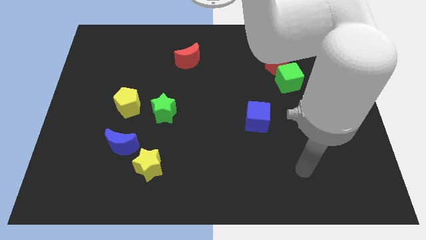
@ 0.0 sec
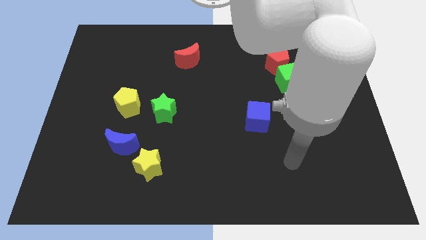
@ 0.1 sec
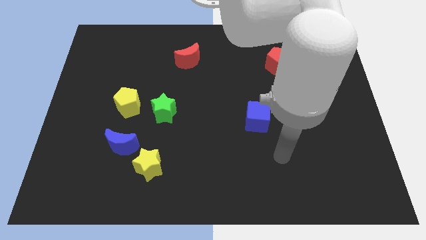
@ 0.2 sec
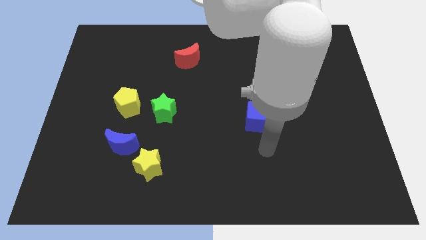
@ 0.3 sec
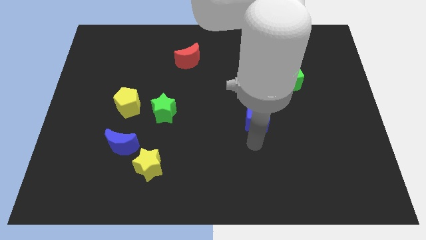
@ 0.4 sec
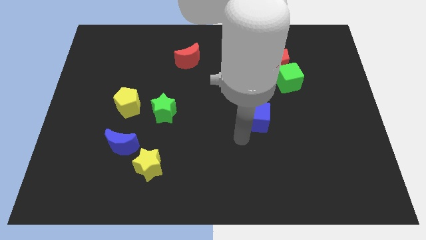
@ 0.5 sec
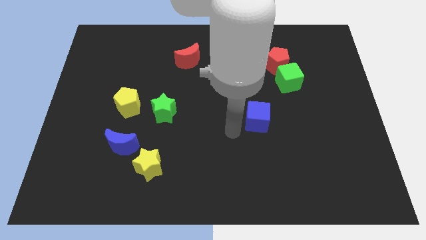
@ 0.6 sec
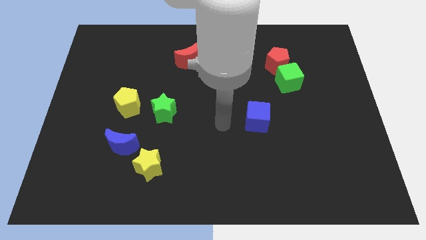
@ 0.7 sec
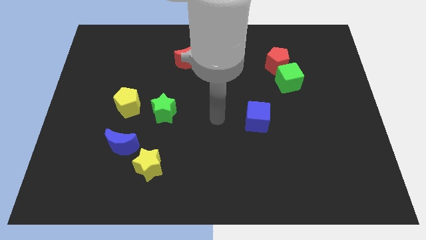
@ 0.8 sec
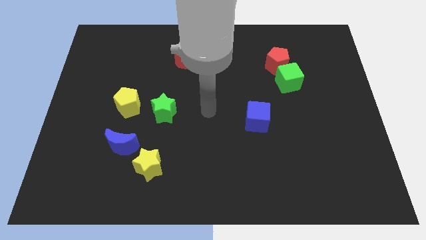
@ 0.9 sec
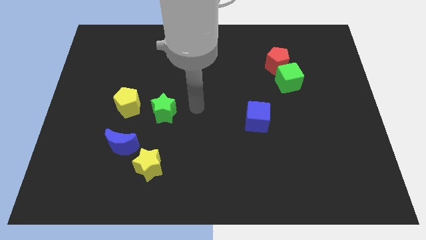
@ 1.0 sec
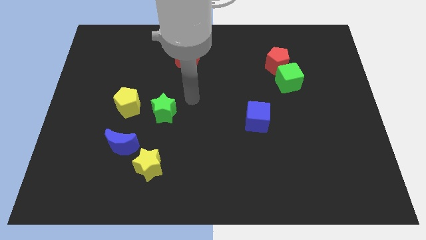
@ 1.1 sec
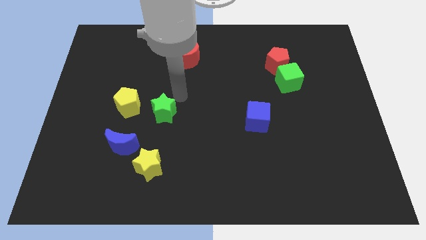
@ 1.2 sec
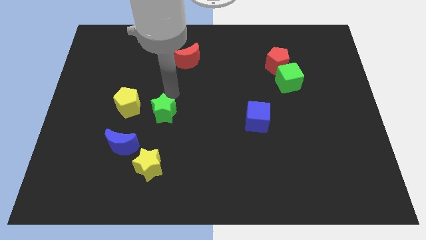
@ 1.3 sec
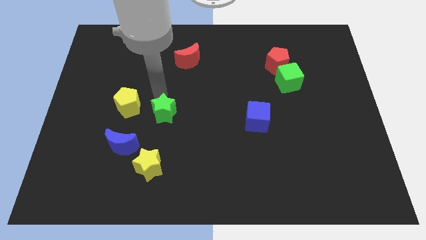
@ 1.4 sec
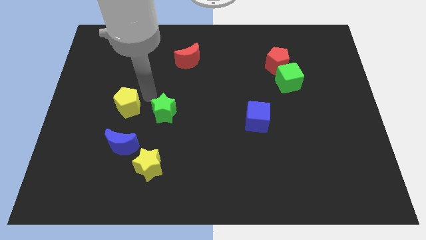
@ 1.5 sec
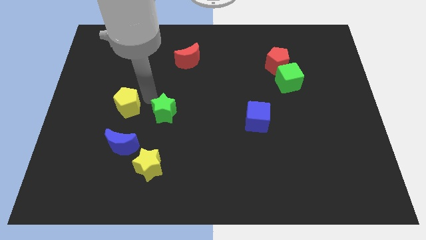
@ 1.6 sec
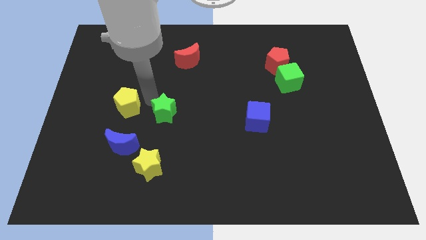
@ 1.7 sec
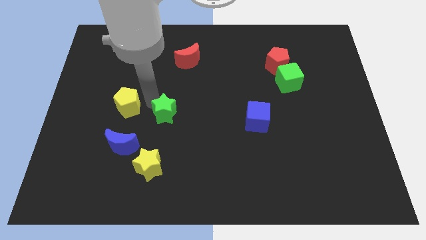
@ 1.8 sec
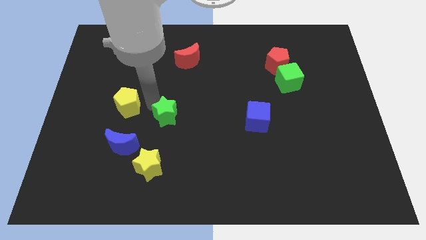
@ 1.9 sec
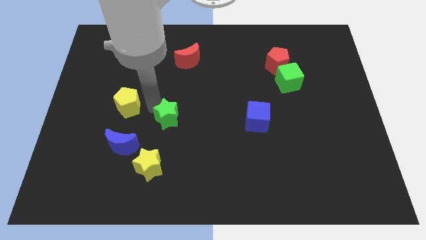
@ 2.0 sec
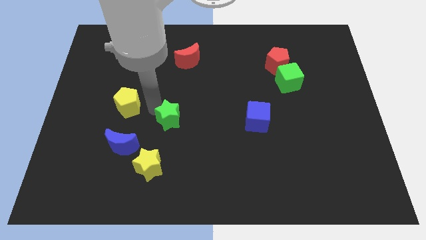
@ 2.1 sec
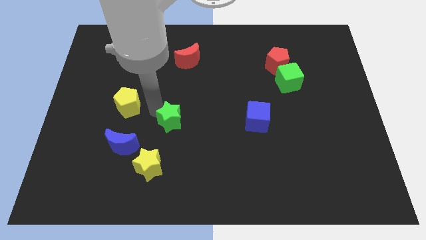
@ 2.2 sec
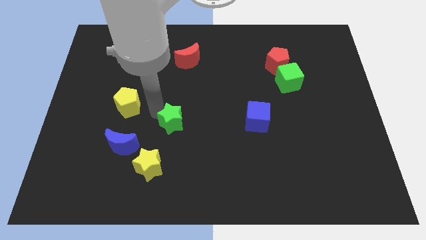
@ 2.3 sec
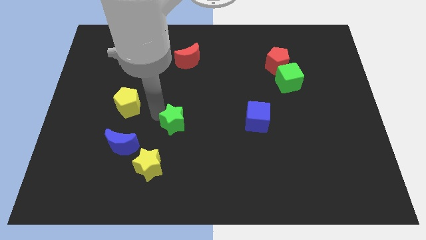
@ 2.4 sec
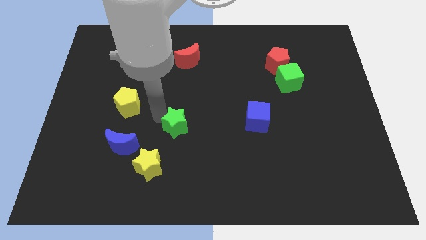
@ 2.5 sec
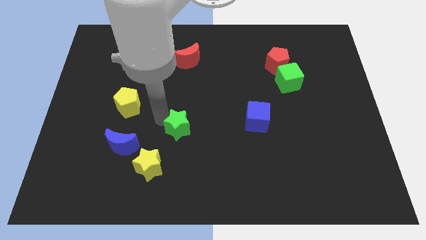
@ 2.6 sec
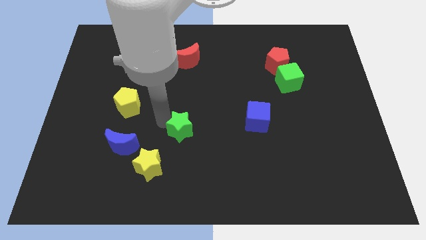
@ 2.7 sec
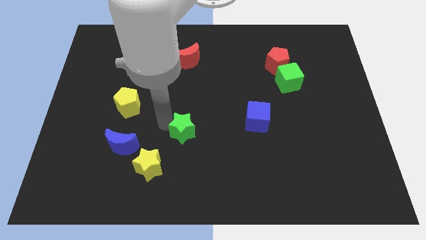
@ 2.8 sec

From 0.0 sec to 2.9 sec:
move the green star downwards and then right a little

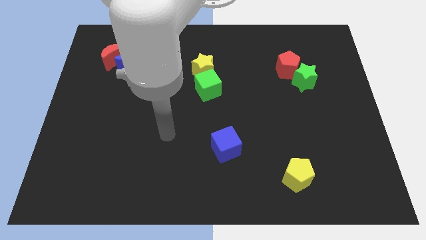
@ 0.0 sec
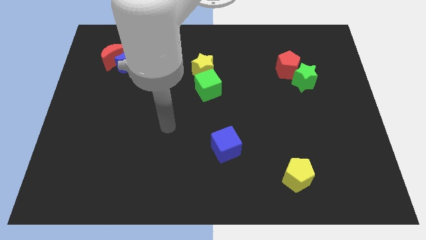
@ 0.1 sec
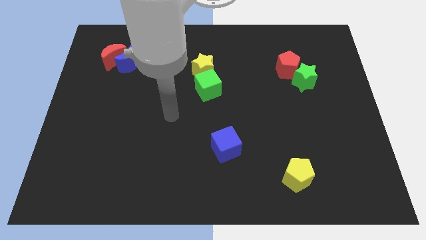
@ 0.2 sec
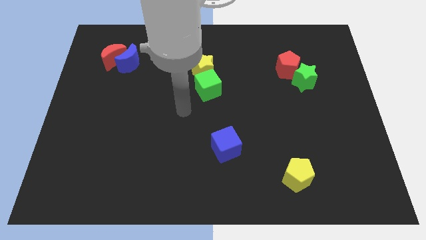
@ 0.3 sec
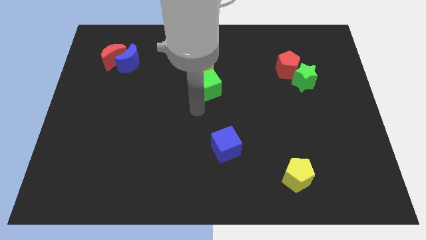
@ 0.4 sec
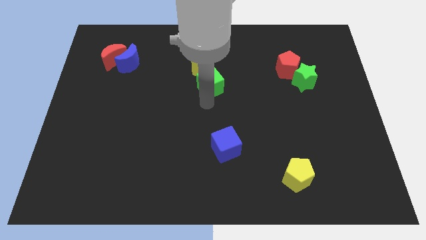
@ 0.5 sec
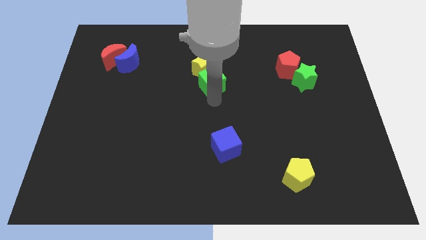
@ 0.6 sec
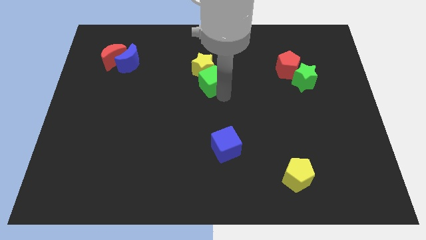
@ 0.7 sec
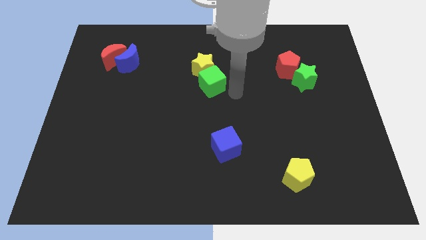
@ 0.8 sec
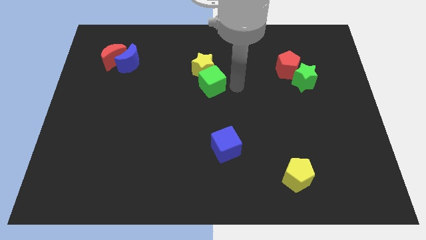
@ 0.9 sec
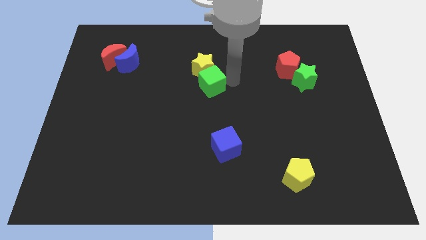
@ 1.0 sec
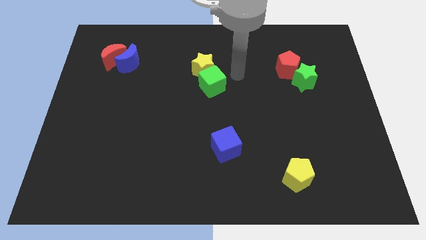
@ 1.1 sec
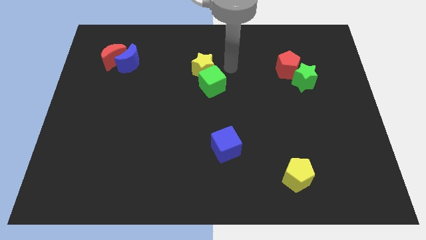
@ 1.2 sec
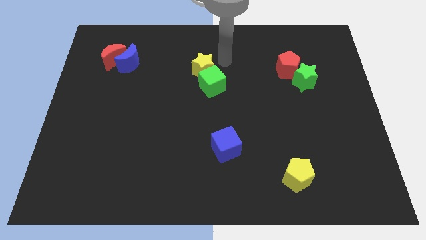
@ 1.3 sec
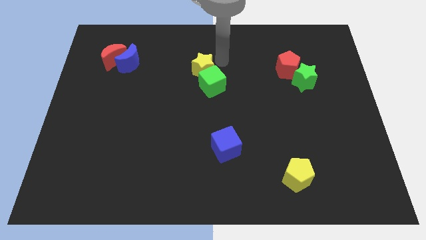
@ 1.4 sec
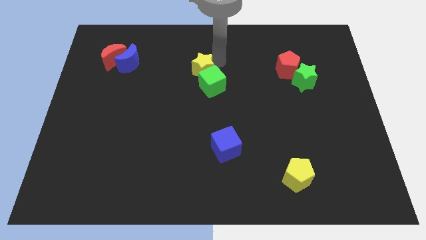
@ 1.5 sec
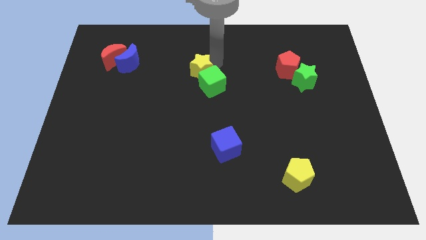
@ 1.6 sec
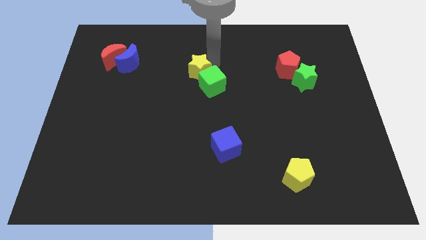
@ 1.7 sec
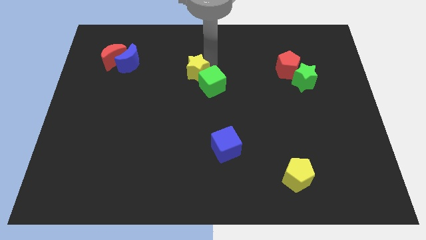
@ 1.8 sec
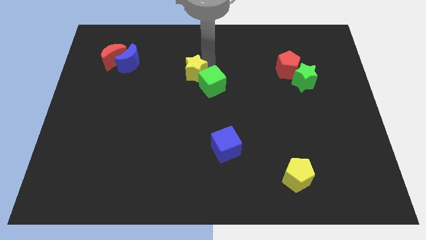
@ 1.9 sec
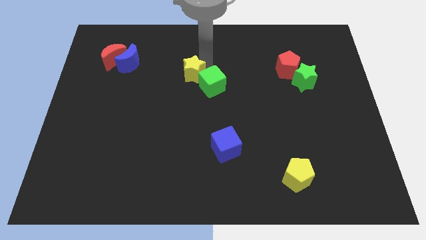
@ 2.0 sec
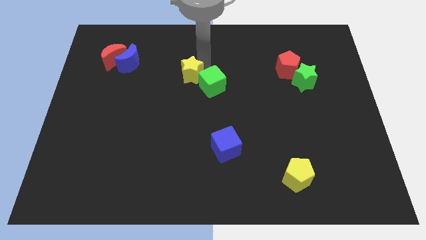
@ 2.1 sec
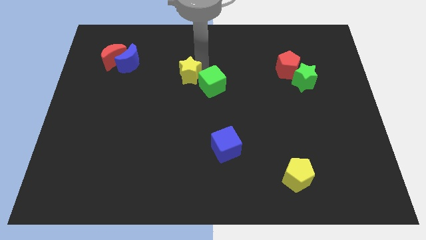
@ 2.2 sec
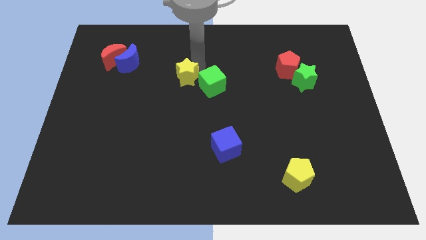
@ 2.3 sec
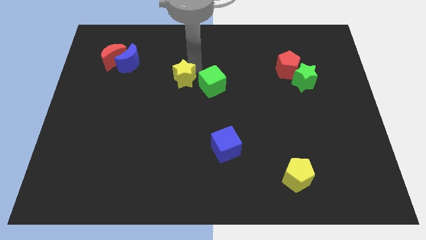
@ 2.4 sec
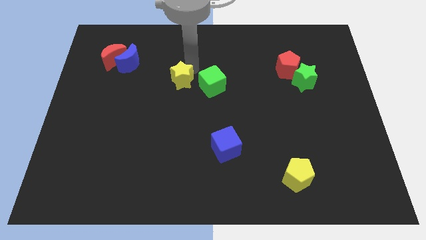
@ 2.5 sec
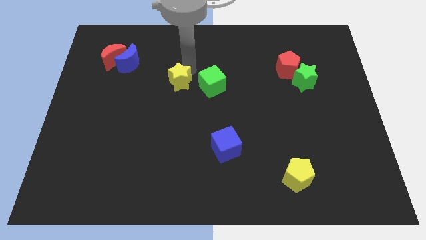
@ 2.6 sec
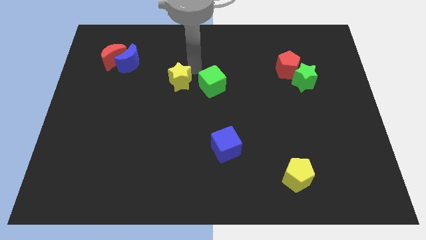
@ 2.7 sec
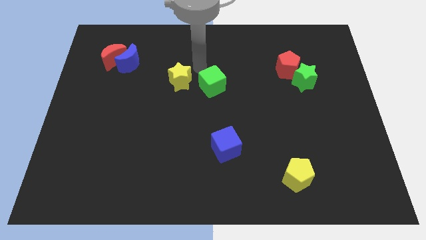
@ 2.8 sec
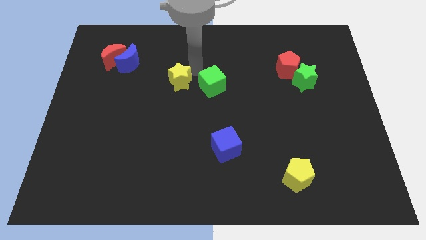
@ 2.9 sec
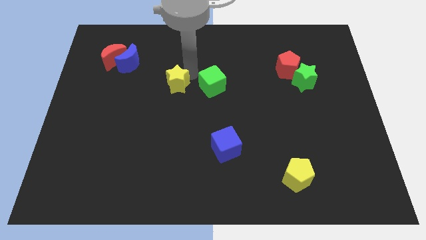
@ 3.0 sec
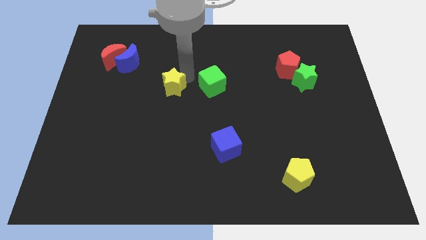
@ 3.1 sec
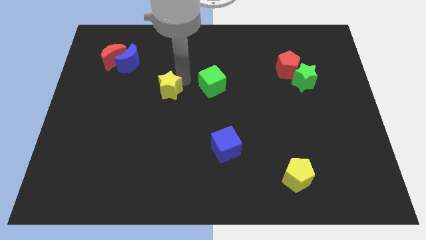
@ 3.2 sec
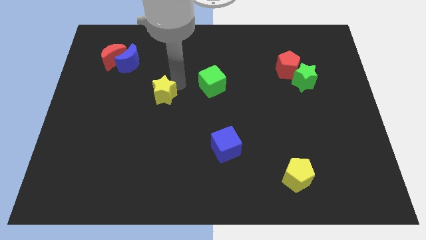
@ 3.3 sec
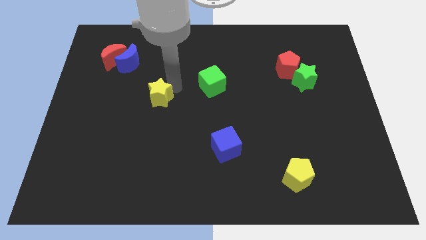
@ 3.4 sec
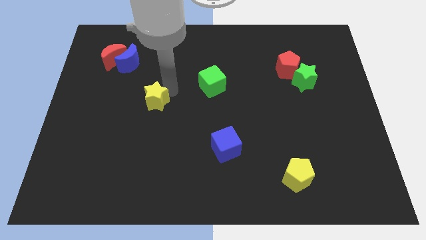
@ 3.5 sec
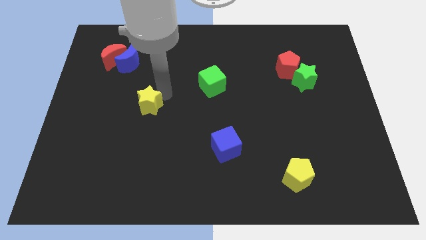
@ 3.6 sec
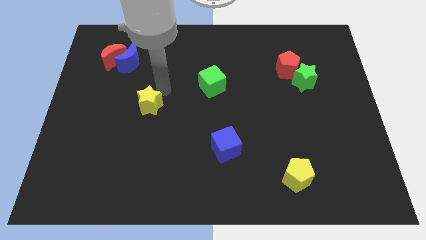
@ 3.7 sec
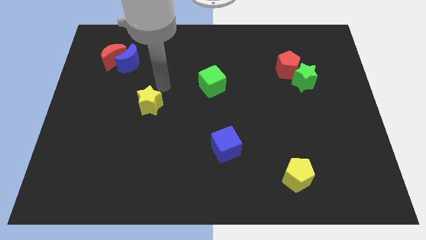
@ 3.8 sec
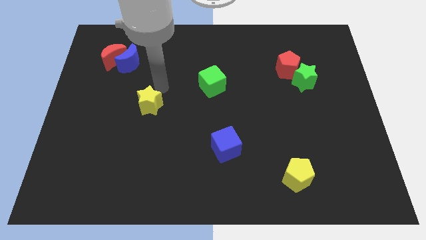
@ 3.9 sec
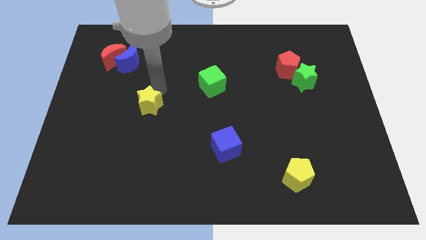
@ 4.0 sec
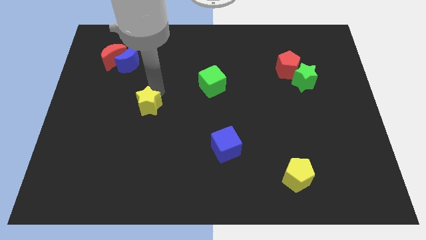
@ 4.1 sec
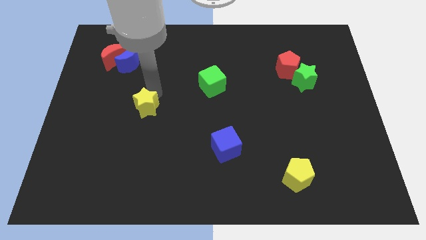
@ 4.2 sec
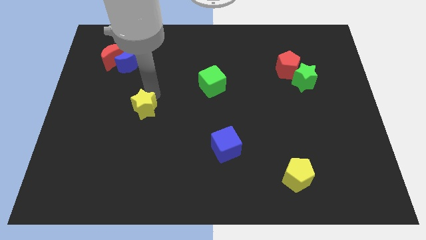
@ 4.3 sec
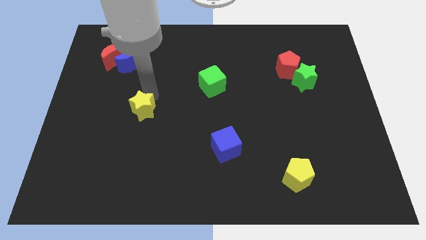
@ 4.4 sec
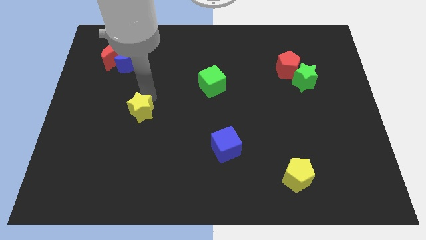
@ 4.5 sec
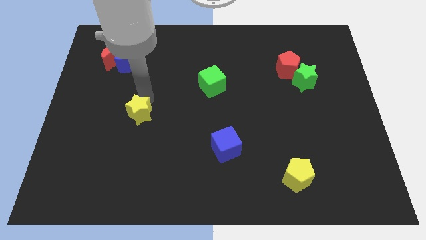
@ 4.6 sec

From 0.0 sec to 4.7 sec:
push the yellow star diagonally downwards and left

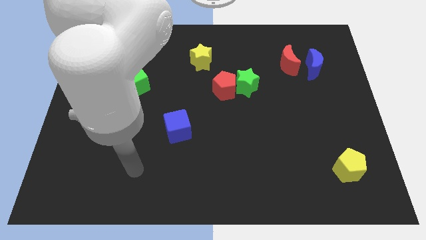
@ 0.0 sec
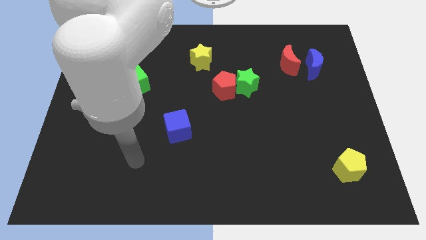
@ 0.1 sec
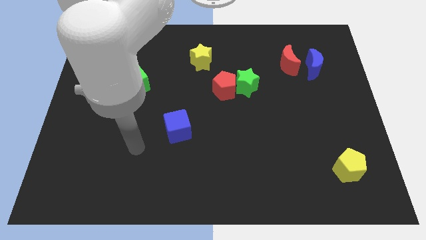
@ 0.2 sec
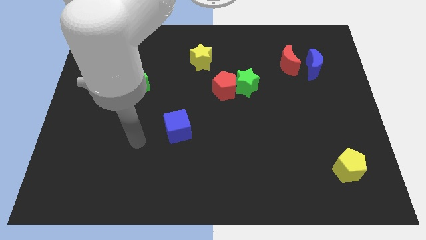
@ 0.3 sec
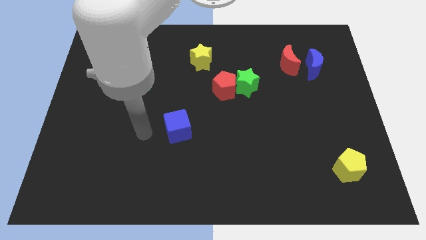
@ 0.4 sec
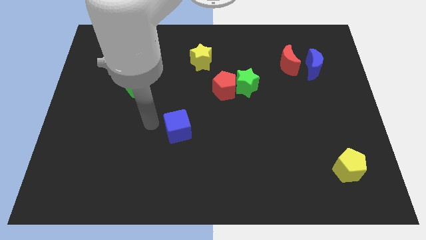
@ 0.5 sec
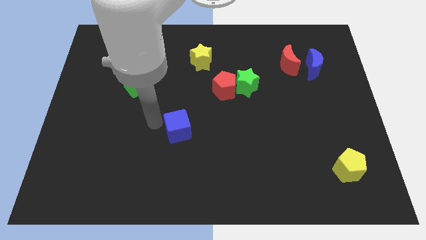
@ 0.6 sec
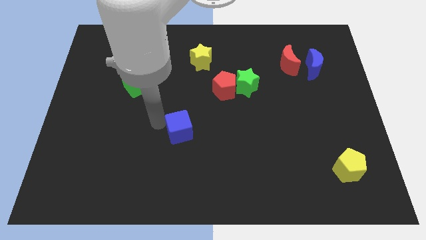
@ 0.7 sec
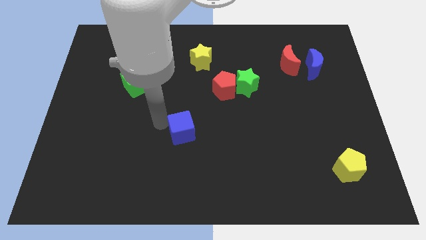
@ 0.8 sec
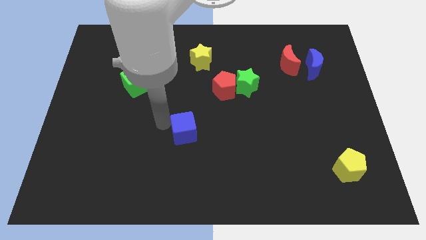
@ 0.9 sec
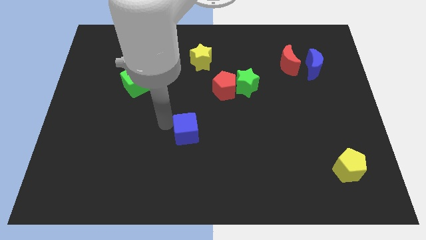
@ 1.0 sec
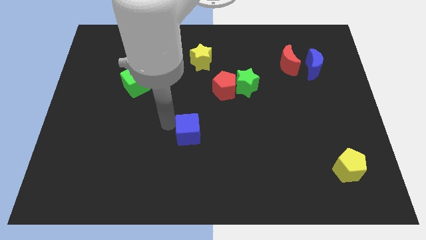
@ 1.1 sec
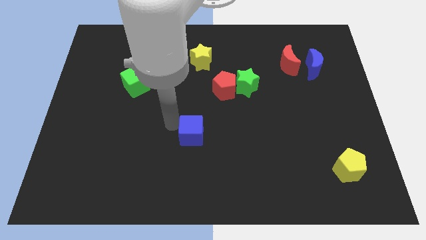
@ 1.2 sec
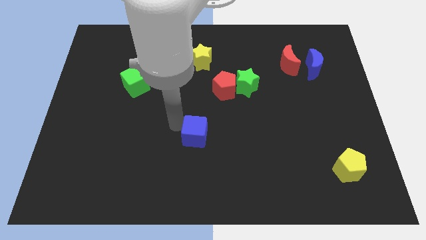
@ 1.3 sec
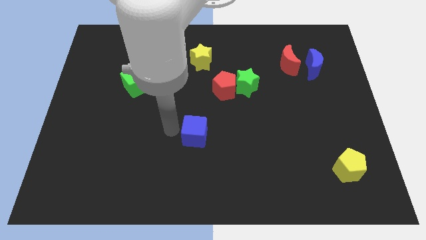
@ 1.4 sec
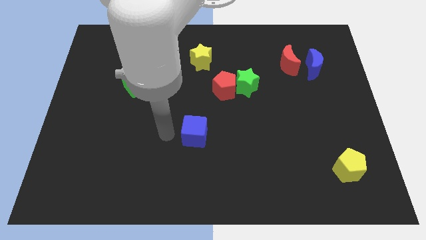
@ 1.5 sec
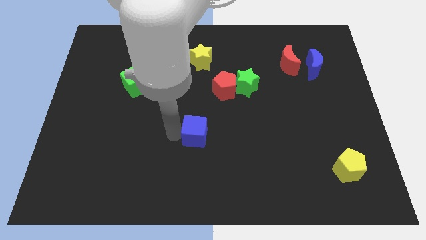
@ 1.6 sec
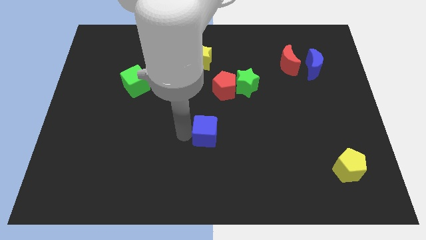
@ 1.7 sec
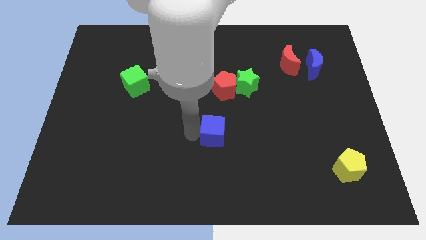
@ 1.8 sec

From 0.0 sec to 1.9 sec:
push the blue cube somewhat right
